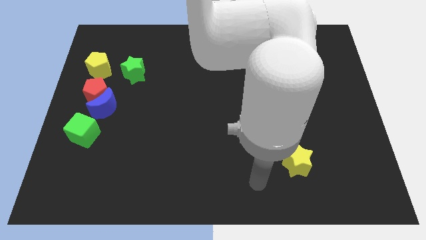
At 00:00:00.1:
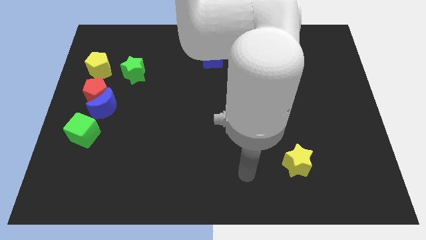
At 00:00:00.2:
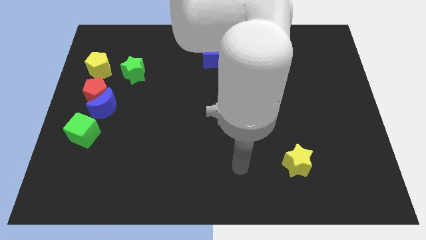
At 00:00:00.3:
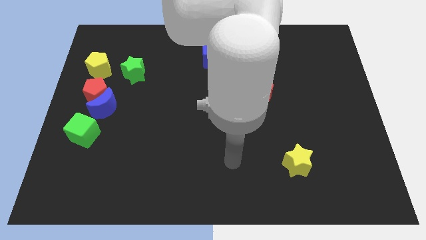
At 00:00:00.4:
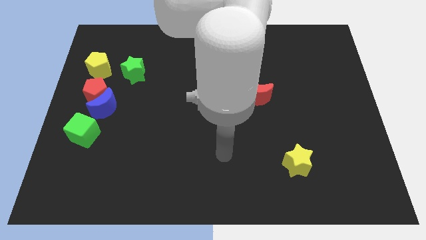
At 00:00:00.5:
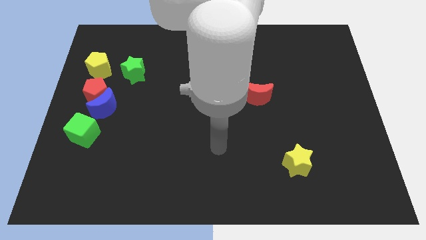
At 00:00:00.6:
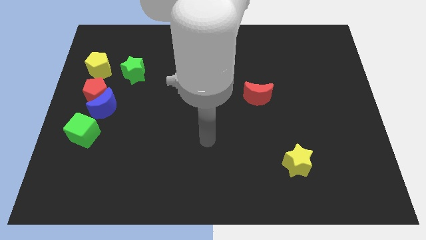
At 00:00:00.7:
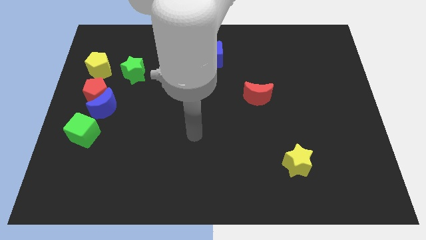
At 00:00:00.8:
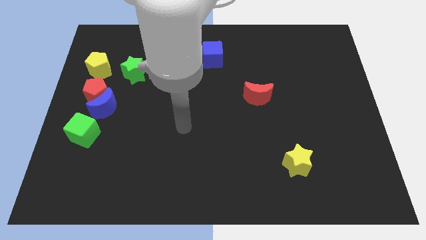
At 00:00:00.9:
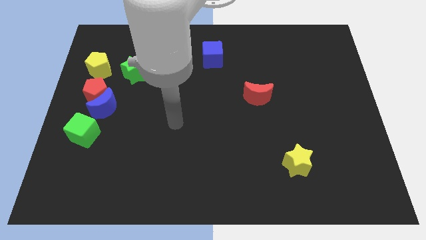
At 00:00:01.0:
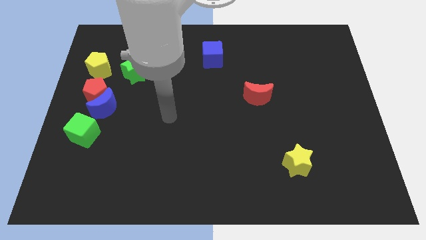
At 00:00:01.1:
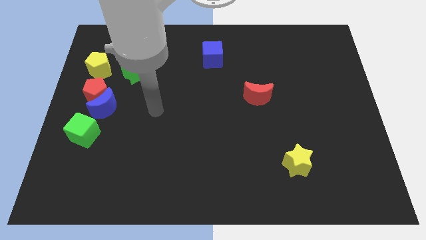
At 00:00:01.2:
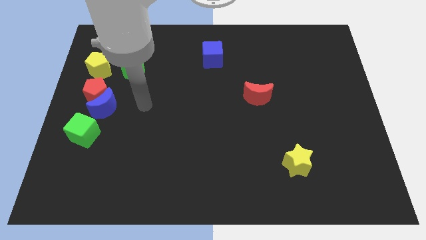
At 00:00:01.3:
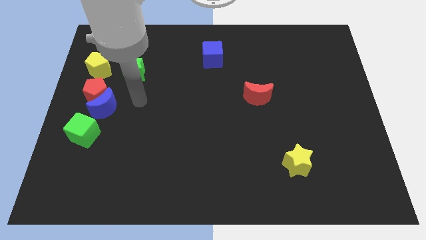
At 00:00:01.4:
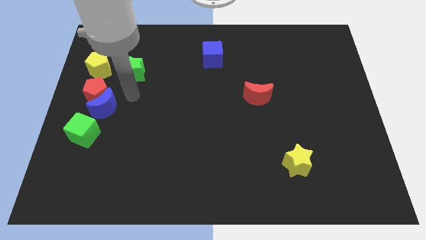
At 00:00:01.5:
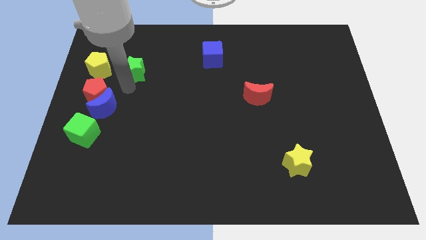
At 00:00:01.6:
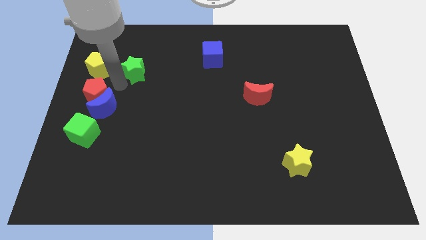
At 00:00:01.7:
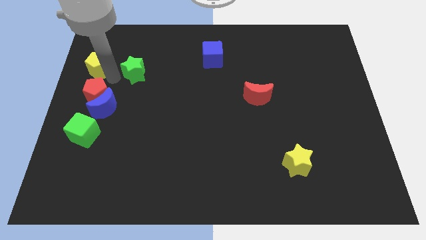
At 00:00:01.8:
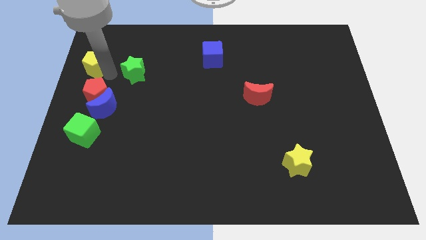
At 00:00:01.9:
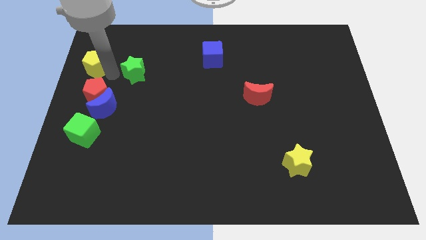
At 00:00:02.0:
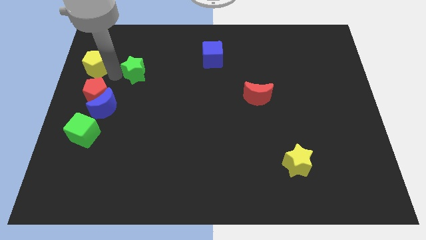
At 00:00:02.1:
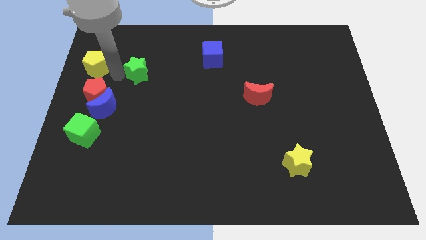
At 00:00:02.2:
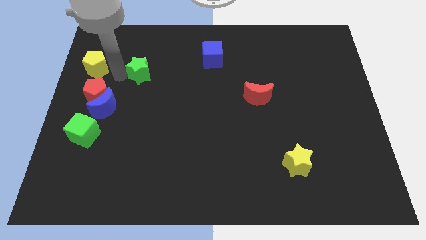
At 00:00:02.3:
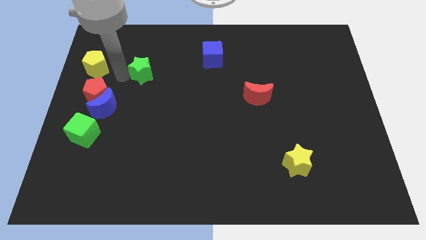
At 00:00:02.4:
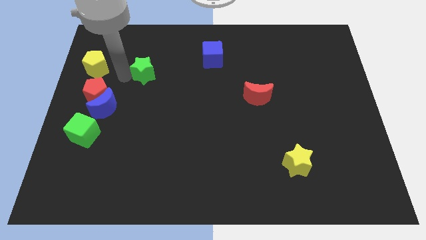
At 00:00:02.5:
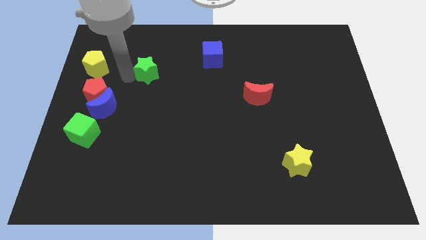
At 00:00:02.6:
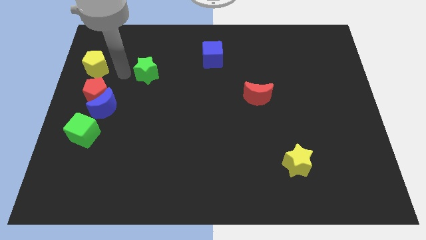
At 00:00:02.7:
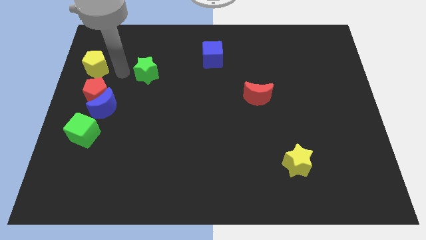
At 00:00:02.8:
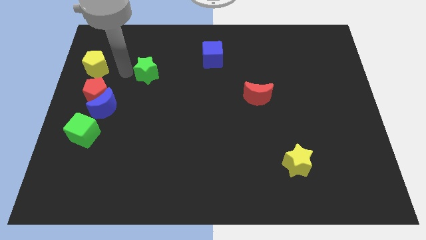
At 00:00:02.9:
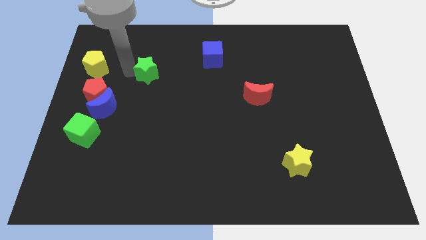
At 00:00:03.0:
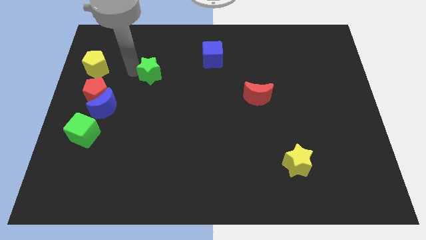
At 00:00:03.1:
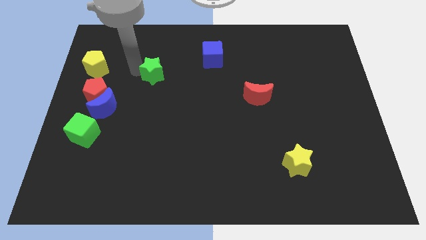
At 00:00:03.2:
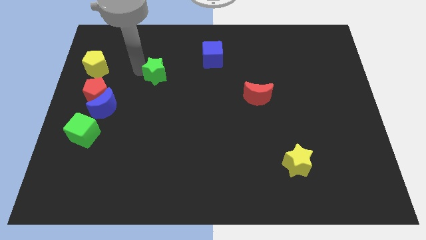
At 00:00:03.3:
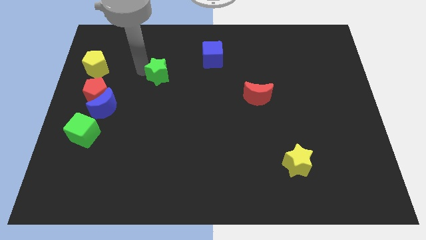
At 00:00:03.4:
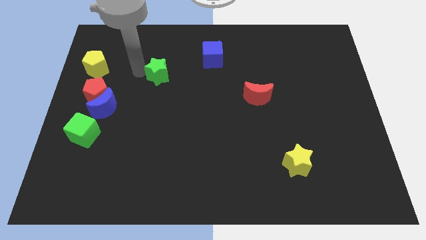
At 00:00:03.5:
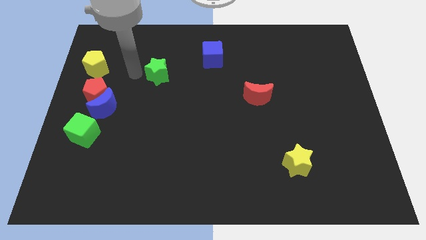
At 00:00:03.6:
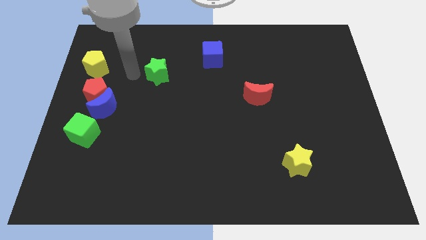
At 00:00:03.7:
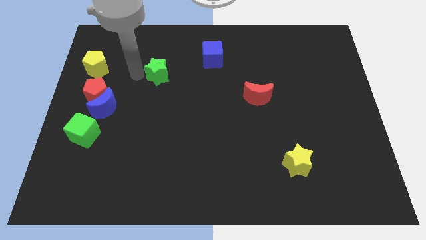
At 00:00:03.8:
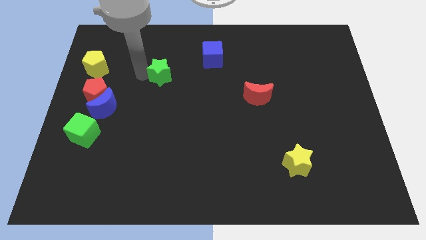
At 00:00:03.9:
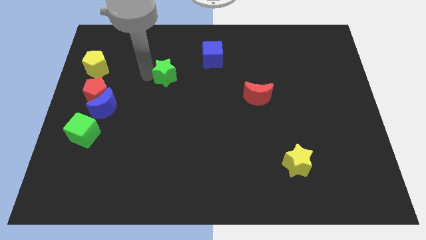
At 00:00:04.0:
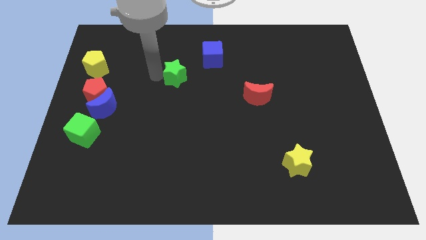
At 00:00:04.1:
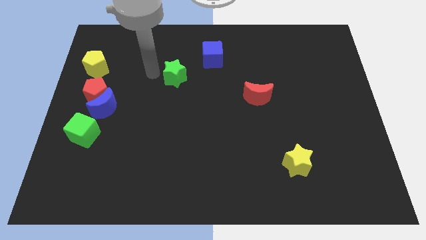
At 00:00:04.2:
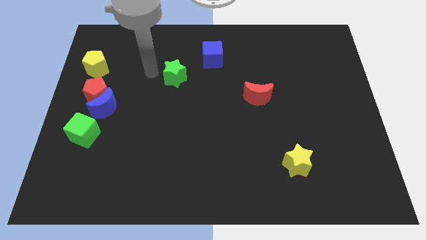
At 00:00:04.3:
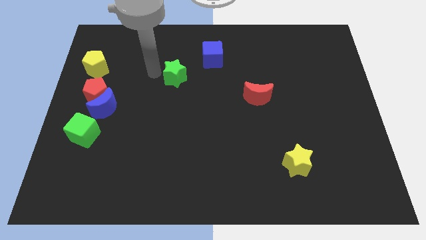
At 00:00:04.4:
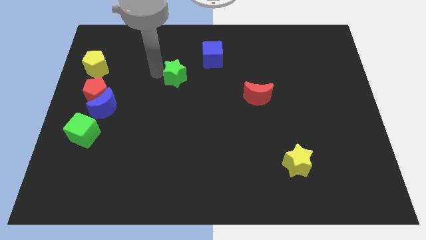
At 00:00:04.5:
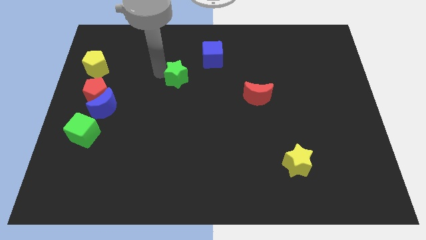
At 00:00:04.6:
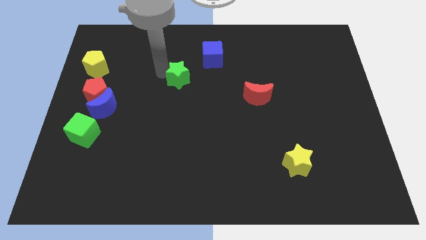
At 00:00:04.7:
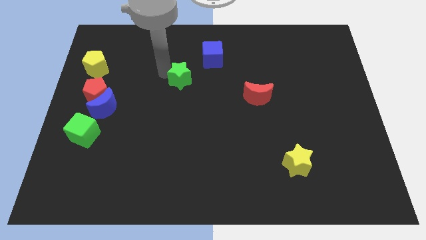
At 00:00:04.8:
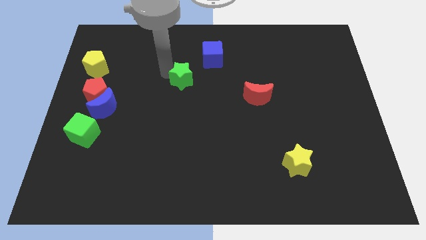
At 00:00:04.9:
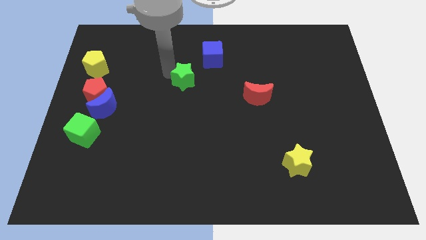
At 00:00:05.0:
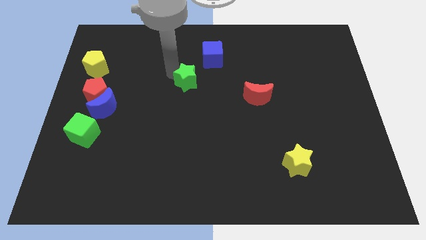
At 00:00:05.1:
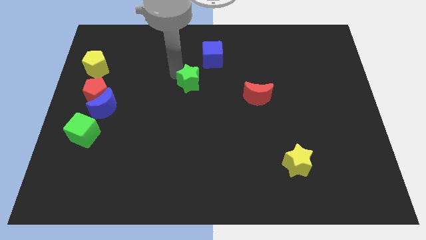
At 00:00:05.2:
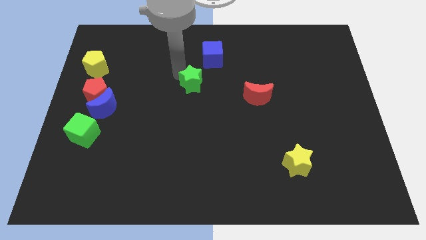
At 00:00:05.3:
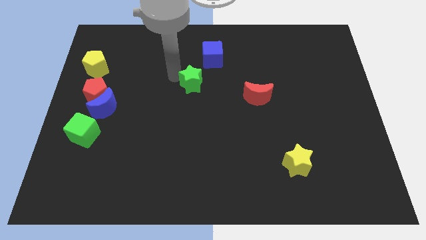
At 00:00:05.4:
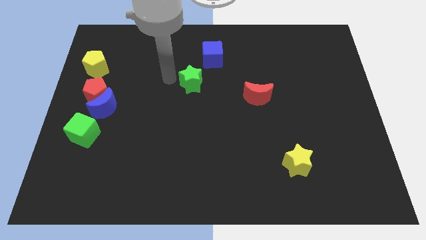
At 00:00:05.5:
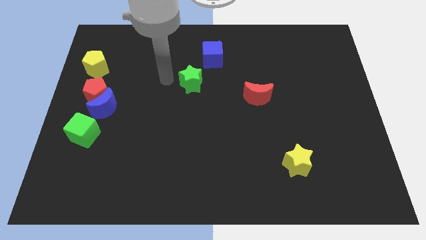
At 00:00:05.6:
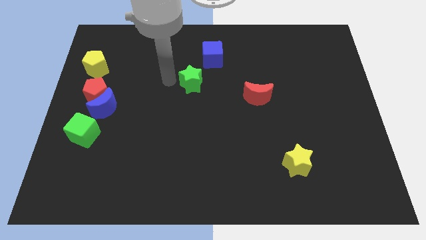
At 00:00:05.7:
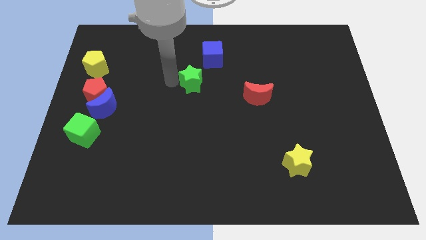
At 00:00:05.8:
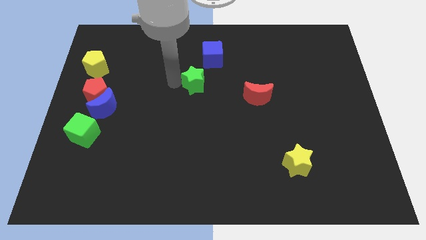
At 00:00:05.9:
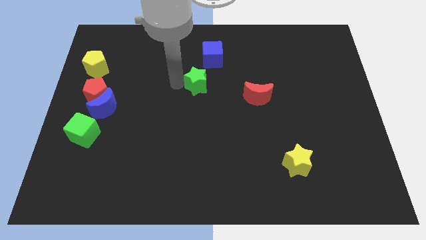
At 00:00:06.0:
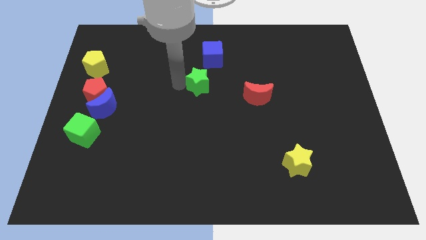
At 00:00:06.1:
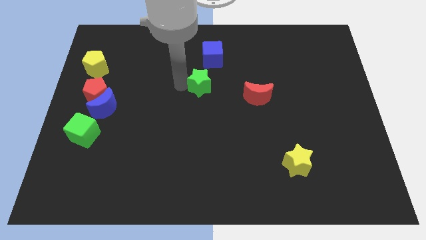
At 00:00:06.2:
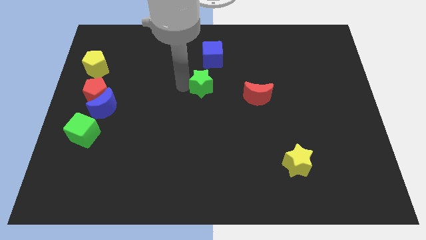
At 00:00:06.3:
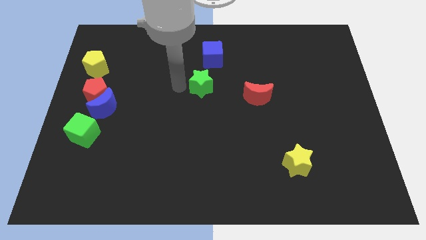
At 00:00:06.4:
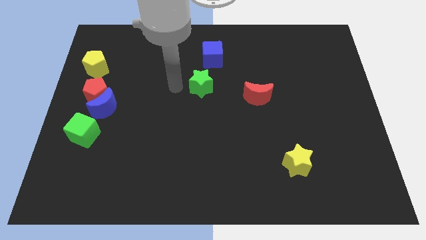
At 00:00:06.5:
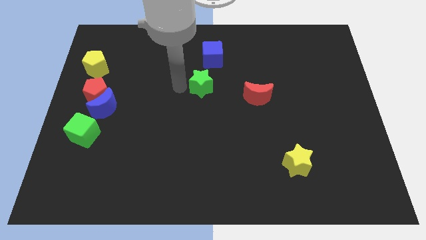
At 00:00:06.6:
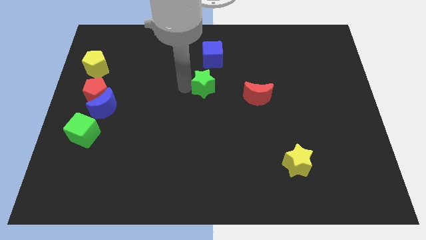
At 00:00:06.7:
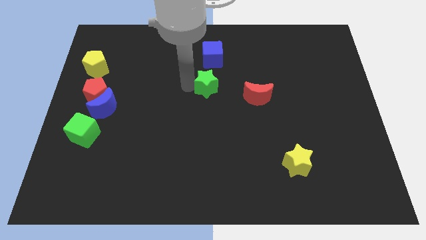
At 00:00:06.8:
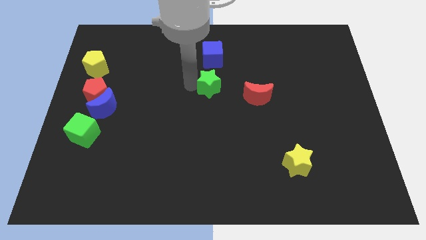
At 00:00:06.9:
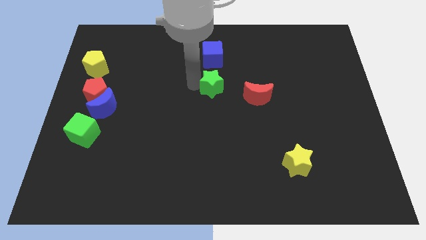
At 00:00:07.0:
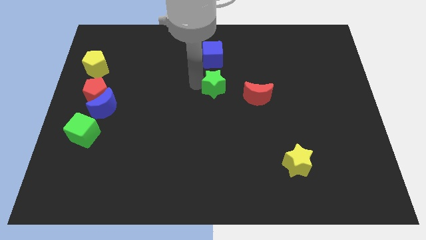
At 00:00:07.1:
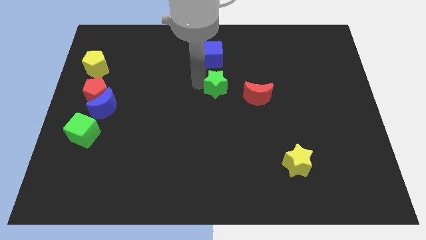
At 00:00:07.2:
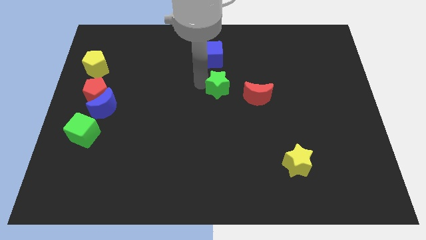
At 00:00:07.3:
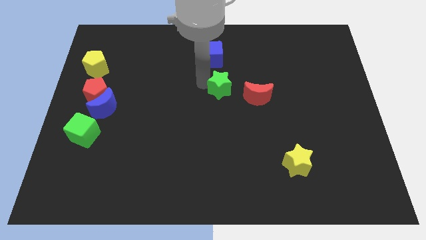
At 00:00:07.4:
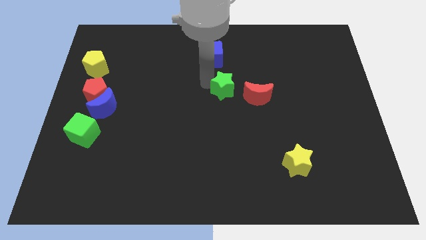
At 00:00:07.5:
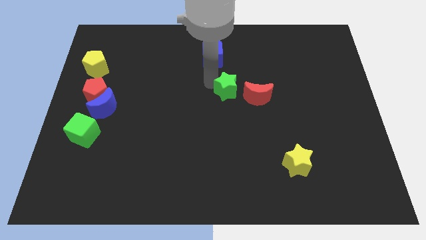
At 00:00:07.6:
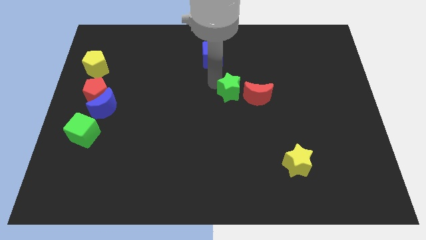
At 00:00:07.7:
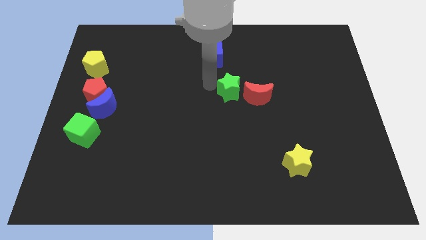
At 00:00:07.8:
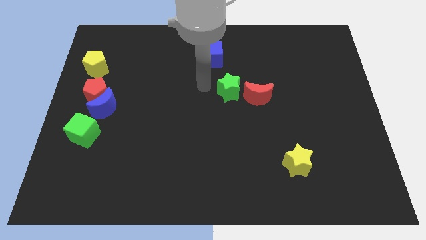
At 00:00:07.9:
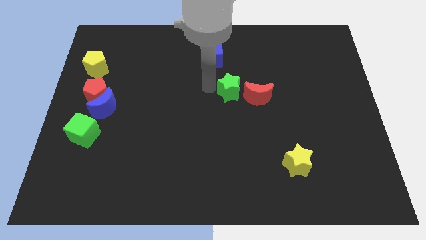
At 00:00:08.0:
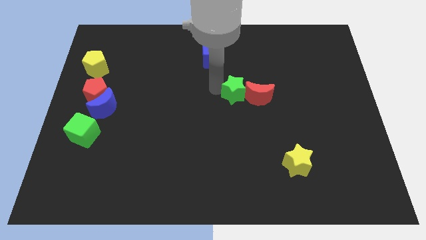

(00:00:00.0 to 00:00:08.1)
slide the green star next to the red moon
